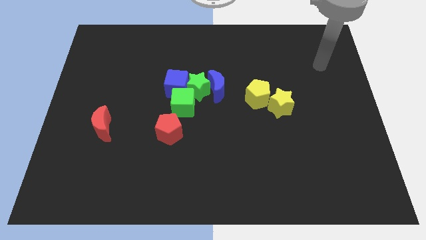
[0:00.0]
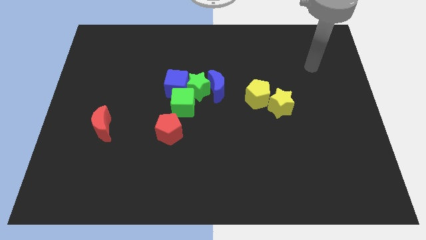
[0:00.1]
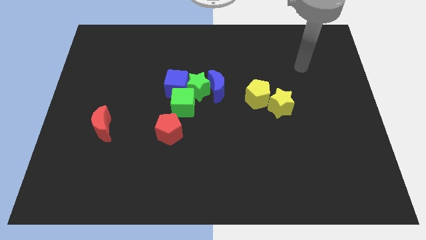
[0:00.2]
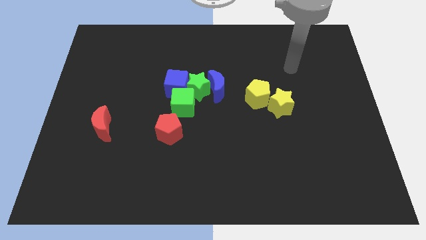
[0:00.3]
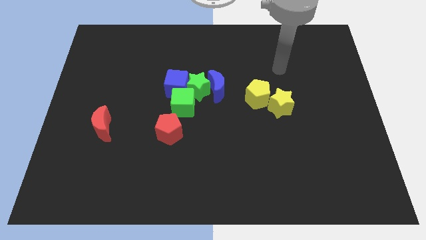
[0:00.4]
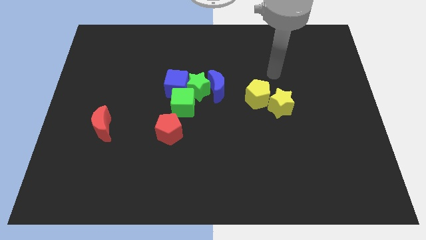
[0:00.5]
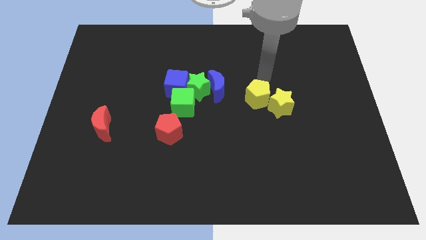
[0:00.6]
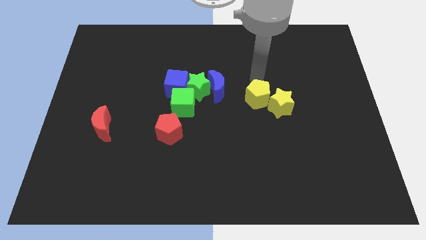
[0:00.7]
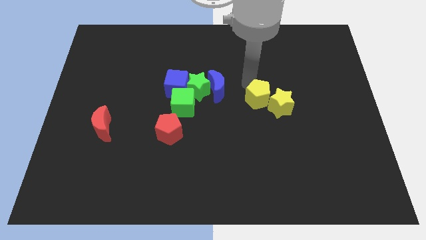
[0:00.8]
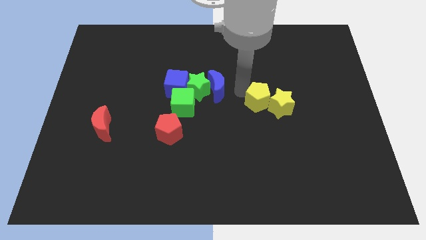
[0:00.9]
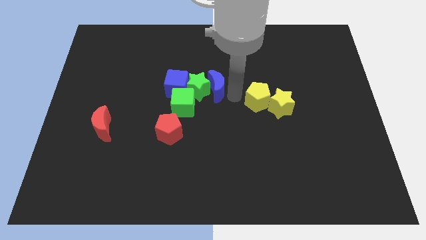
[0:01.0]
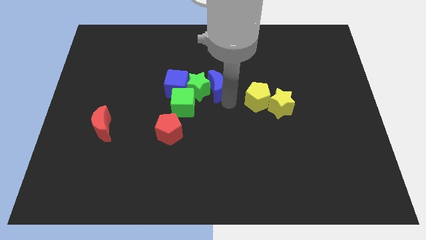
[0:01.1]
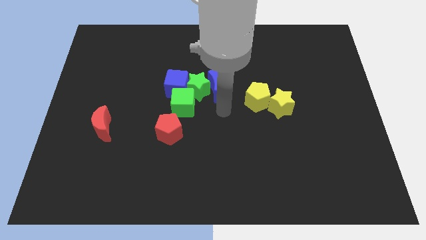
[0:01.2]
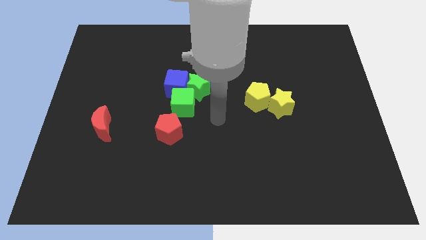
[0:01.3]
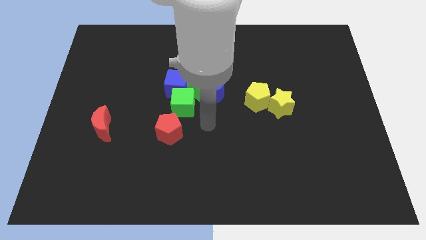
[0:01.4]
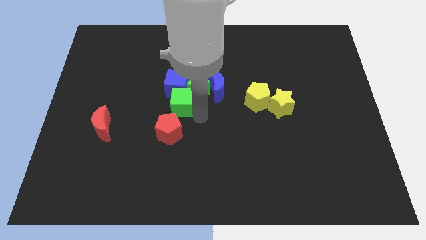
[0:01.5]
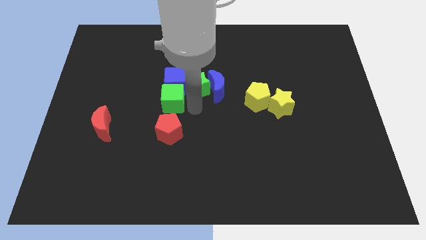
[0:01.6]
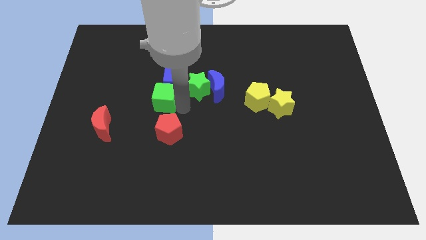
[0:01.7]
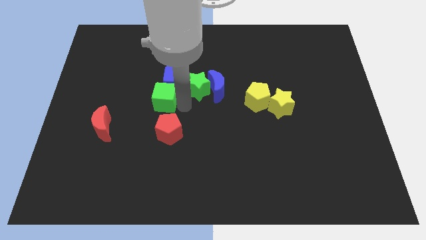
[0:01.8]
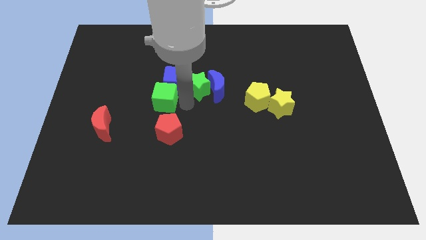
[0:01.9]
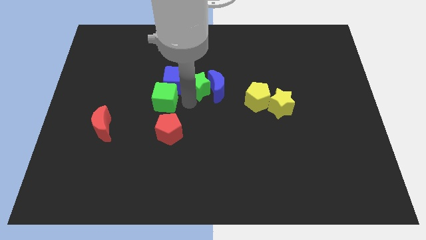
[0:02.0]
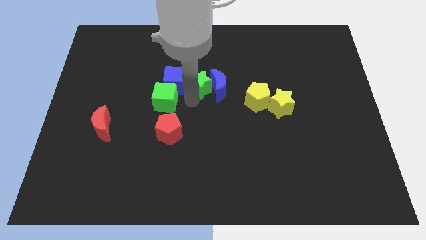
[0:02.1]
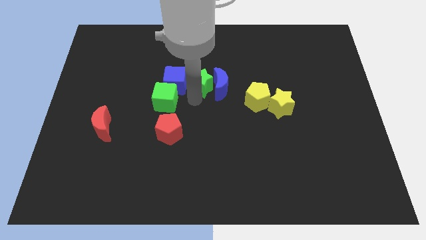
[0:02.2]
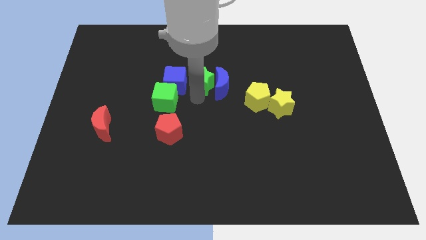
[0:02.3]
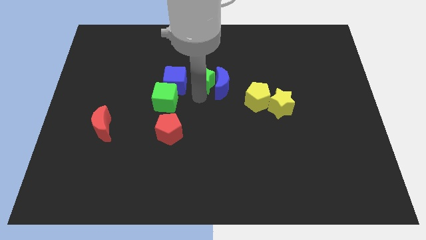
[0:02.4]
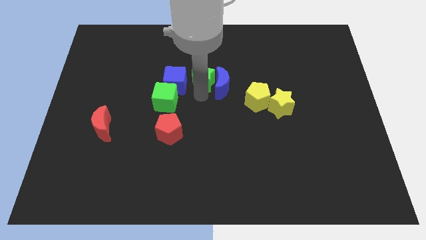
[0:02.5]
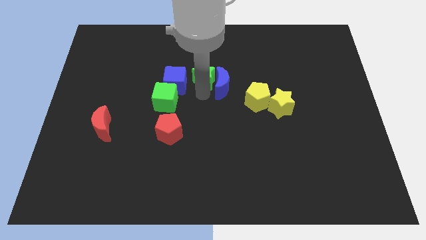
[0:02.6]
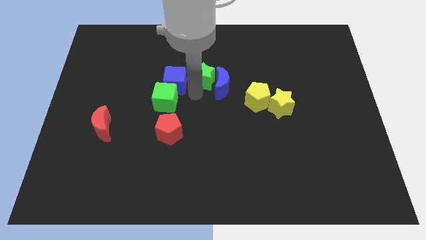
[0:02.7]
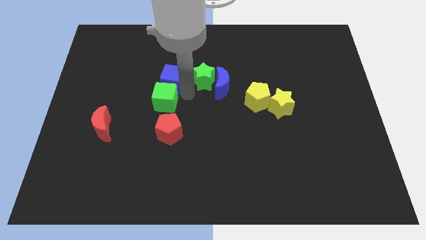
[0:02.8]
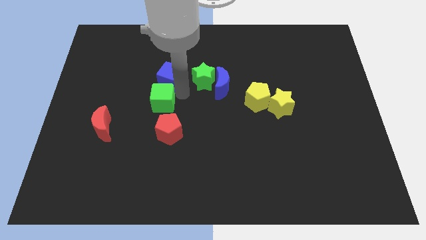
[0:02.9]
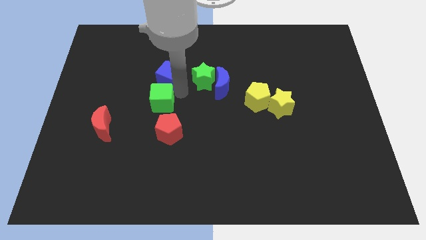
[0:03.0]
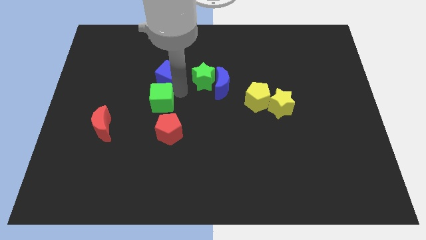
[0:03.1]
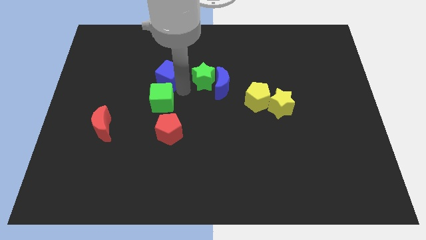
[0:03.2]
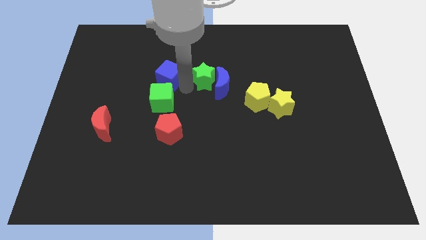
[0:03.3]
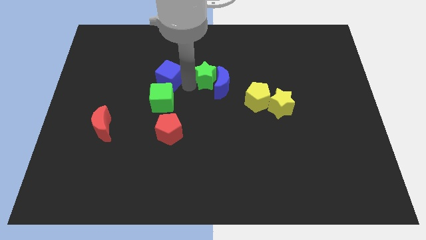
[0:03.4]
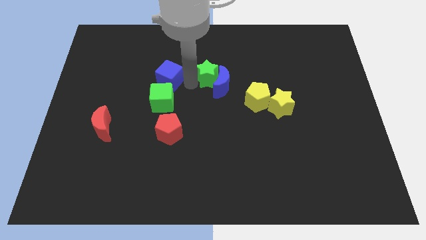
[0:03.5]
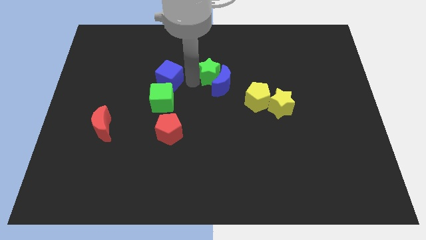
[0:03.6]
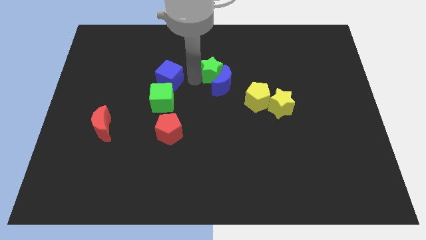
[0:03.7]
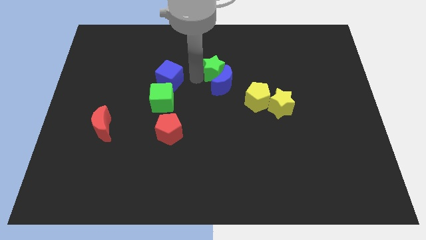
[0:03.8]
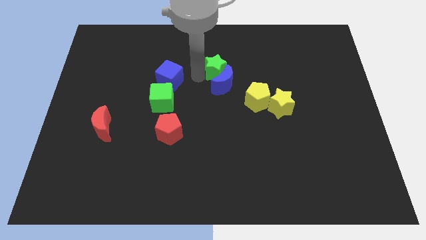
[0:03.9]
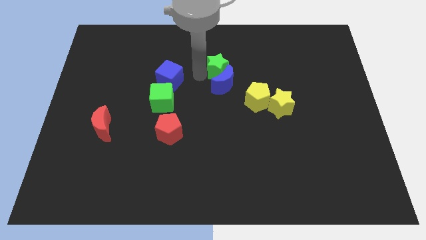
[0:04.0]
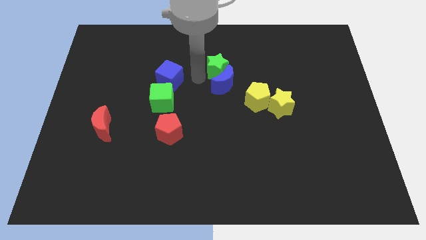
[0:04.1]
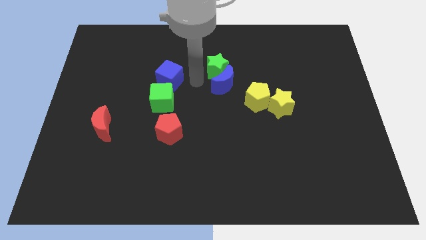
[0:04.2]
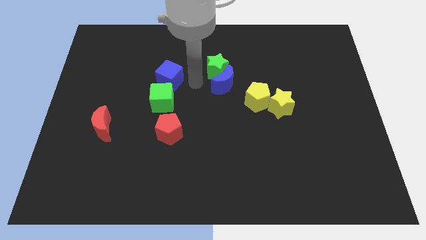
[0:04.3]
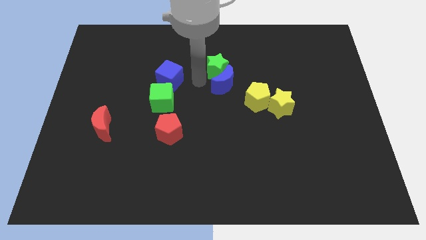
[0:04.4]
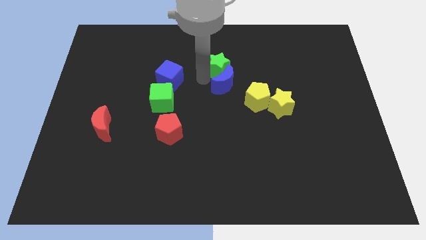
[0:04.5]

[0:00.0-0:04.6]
move the green star away from the blue moon, blue cube, and green cube

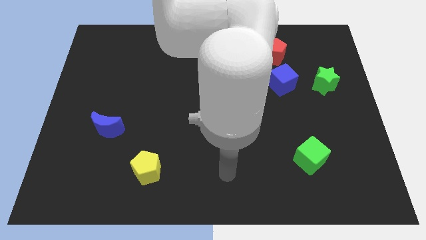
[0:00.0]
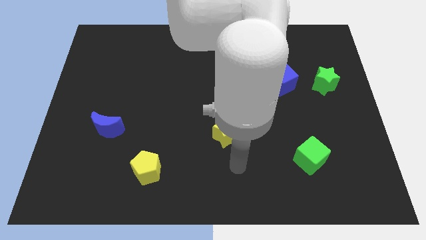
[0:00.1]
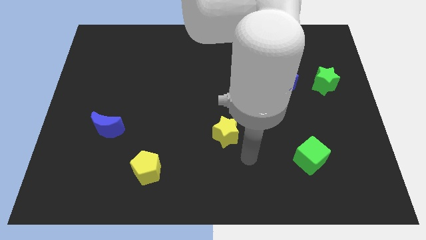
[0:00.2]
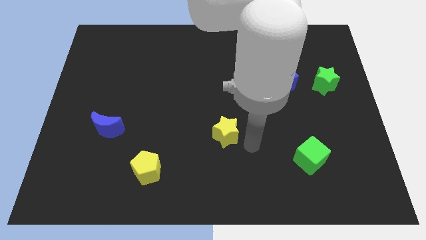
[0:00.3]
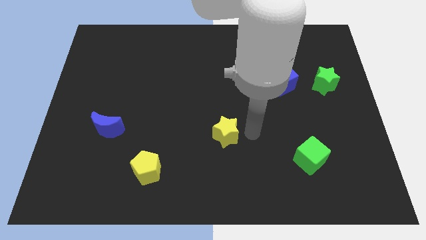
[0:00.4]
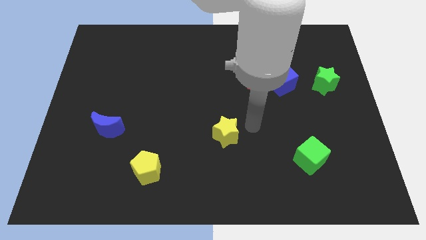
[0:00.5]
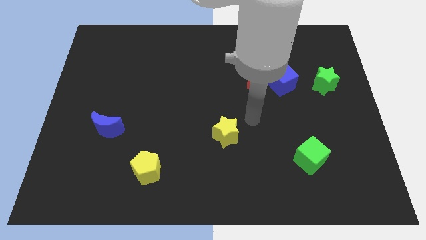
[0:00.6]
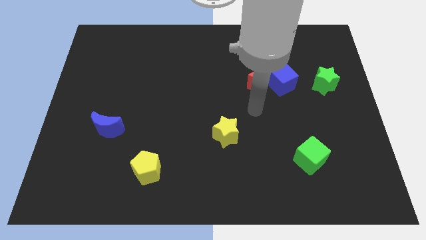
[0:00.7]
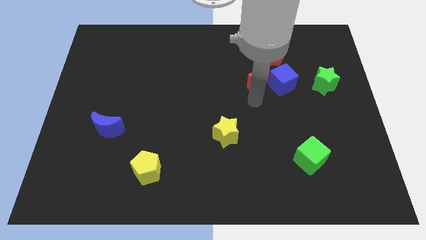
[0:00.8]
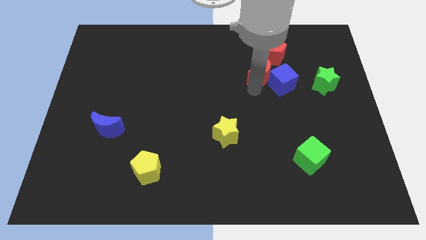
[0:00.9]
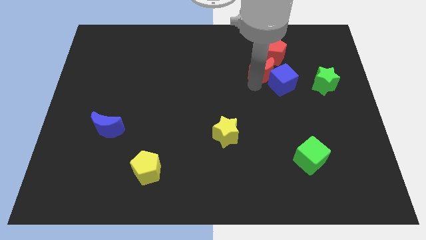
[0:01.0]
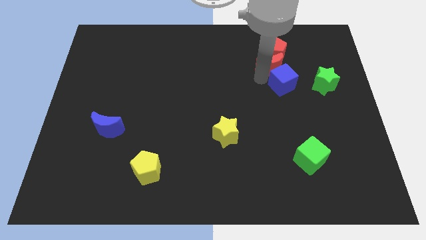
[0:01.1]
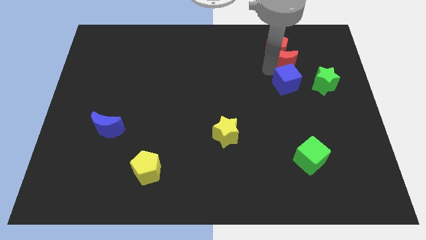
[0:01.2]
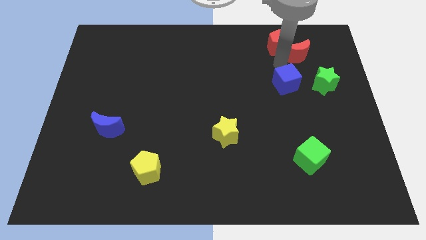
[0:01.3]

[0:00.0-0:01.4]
pull the blue cube apart from the red moon and red pentagon

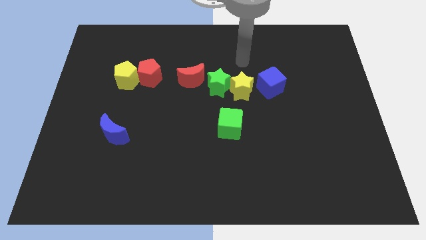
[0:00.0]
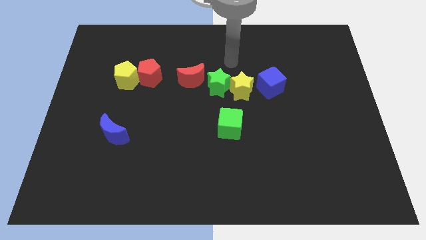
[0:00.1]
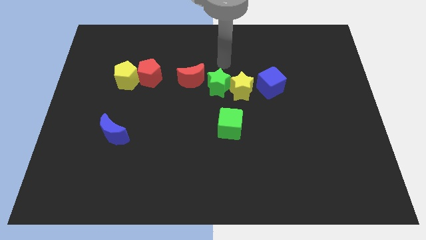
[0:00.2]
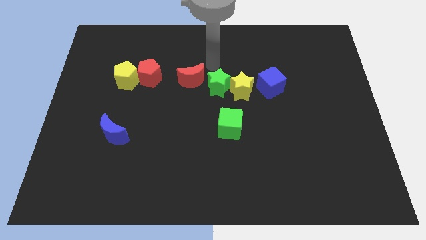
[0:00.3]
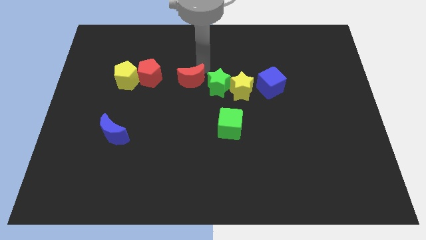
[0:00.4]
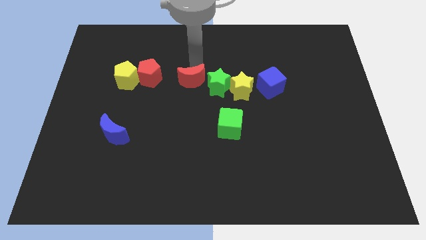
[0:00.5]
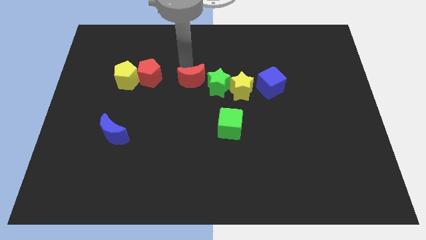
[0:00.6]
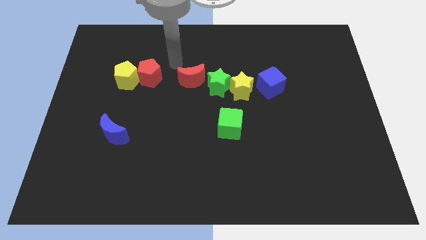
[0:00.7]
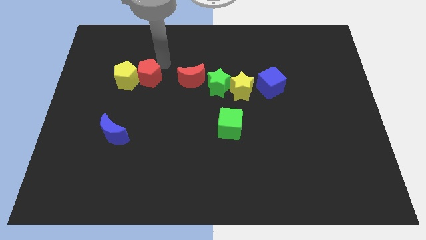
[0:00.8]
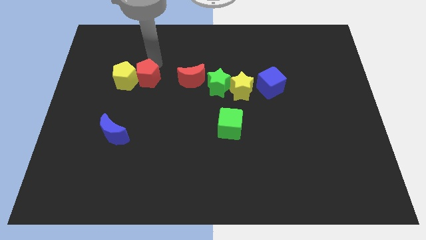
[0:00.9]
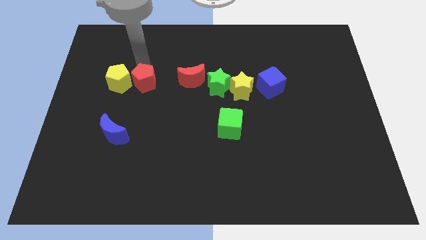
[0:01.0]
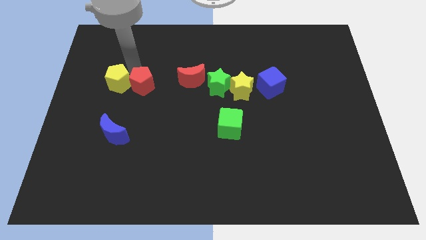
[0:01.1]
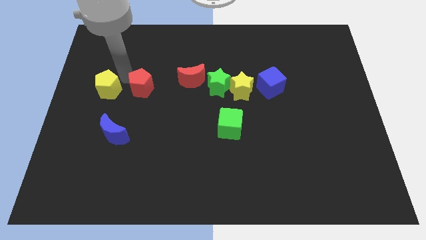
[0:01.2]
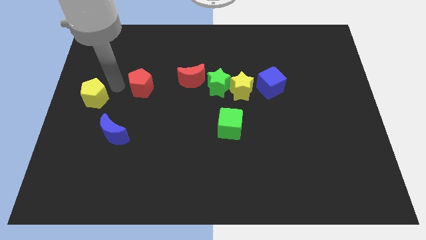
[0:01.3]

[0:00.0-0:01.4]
separate the red pentagon from the yellow pentagon

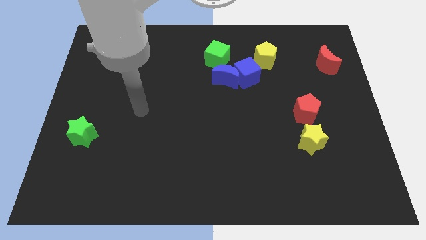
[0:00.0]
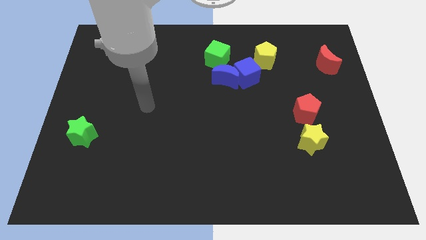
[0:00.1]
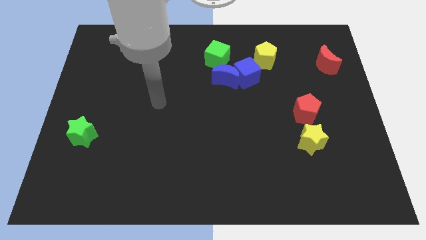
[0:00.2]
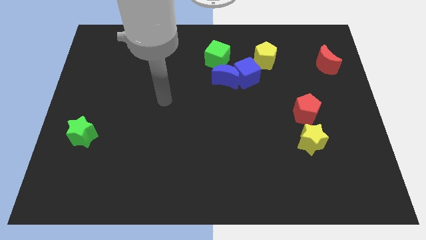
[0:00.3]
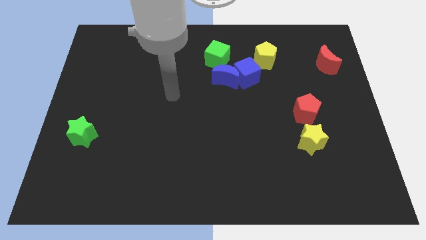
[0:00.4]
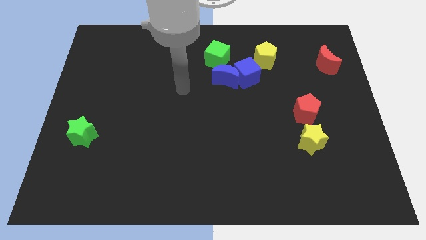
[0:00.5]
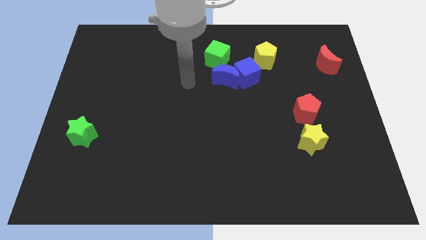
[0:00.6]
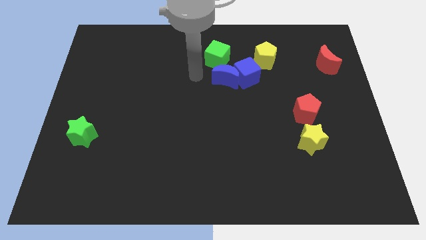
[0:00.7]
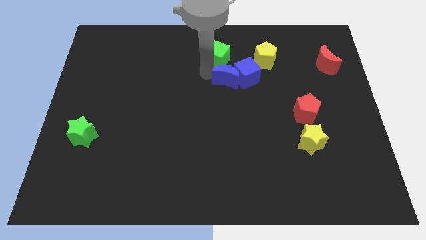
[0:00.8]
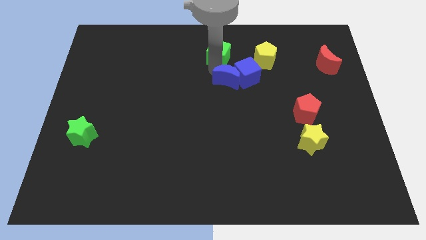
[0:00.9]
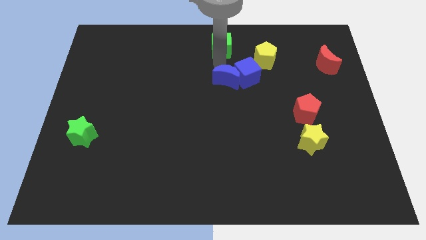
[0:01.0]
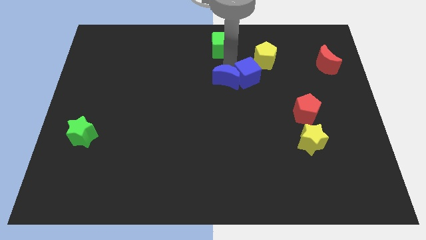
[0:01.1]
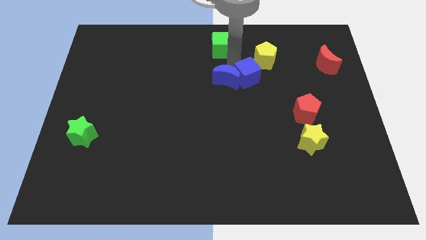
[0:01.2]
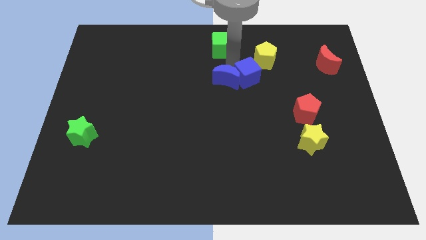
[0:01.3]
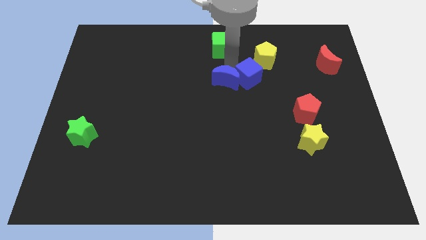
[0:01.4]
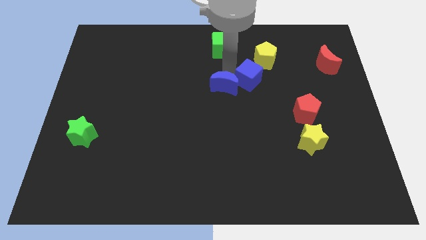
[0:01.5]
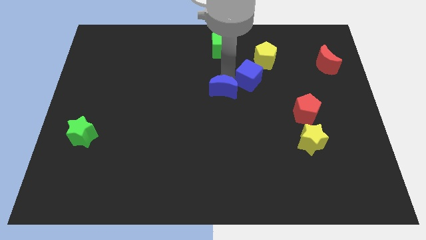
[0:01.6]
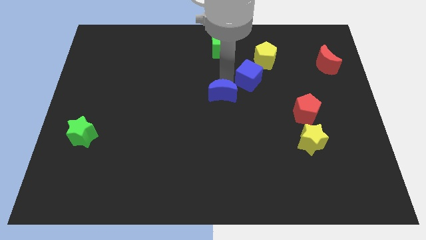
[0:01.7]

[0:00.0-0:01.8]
move the blue moon away from the blue cube and green cube

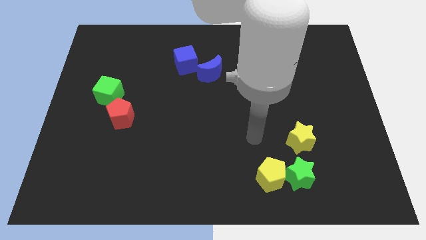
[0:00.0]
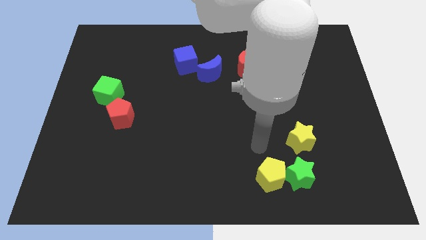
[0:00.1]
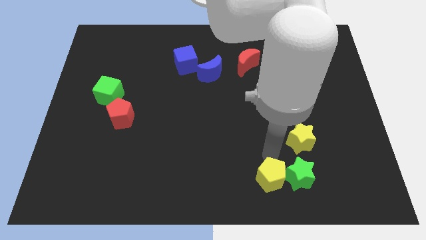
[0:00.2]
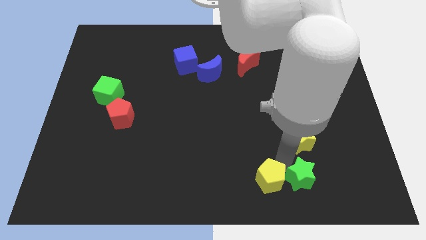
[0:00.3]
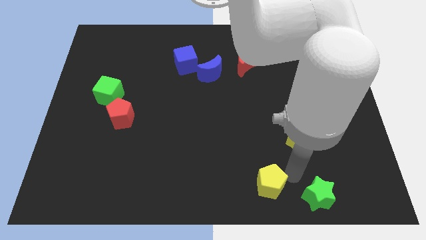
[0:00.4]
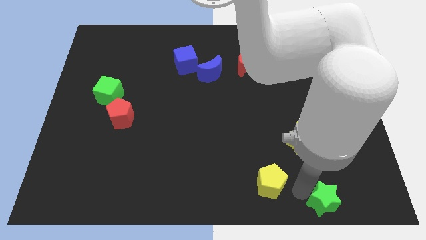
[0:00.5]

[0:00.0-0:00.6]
move the yellow pentagon away from the green star
